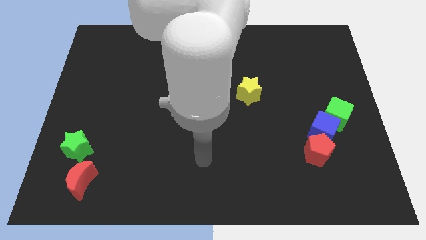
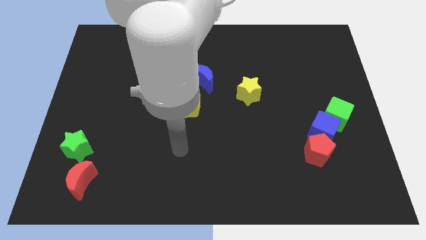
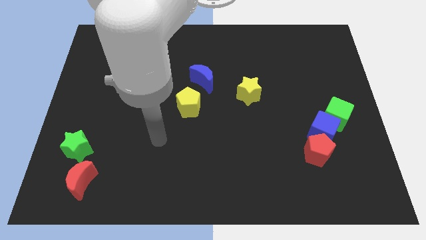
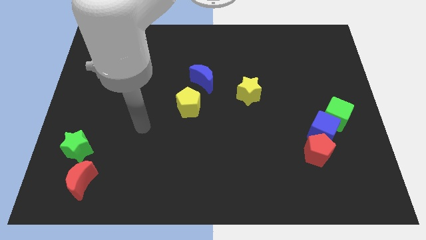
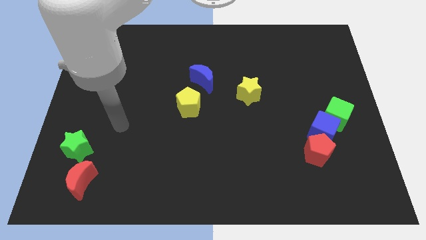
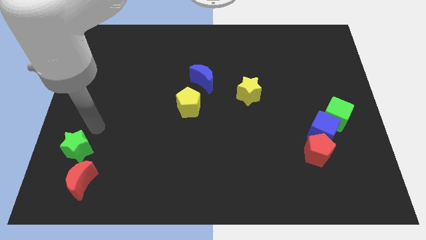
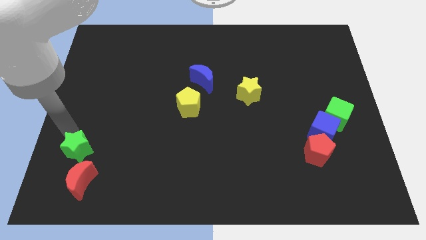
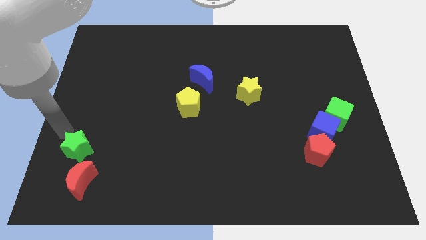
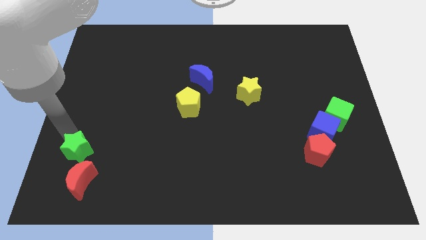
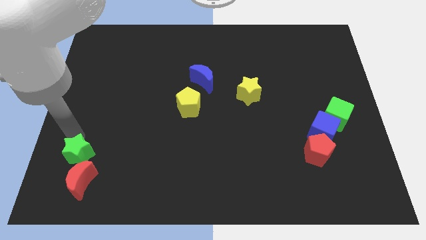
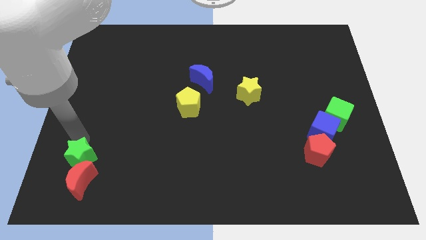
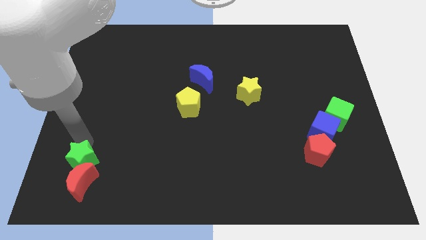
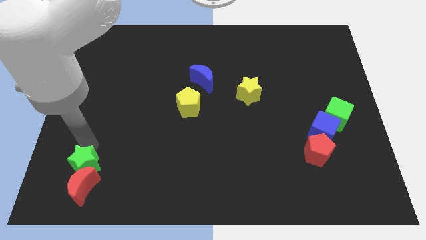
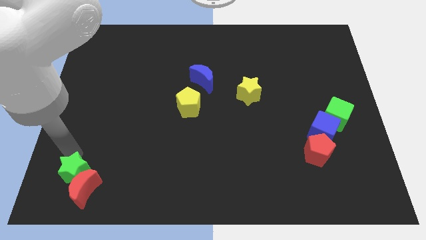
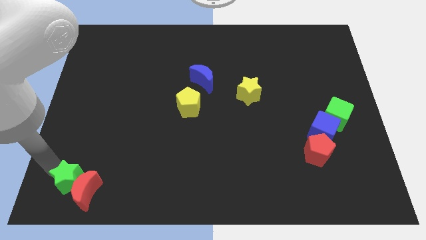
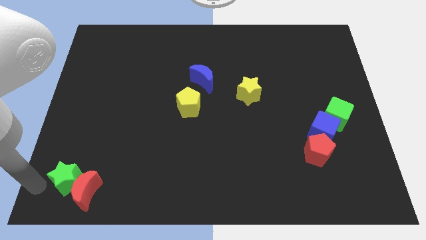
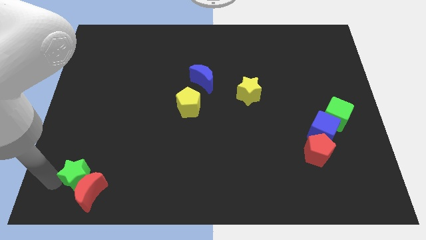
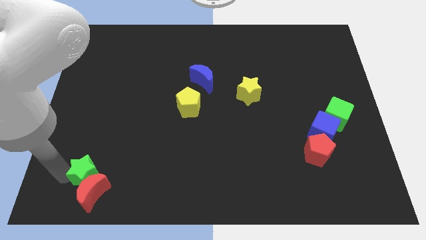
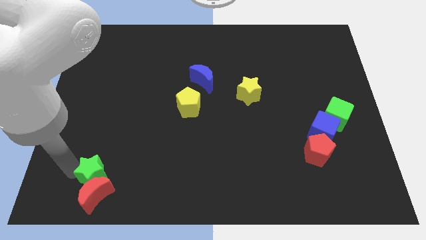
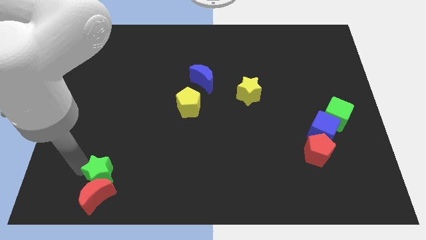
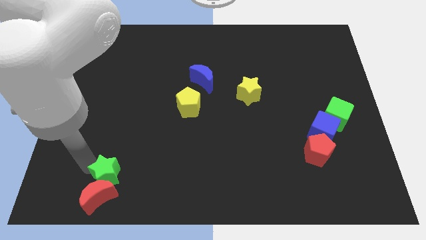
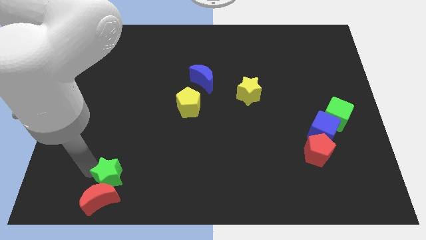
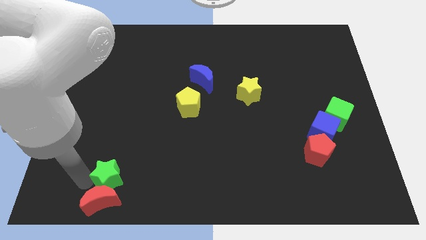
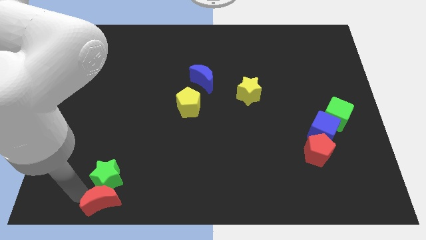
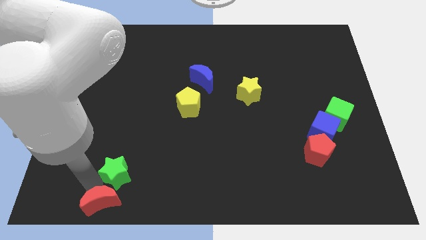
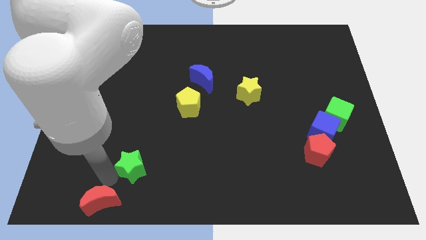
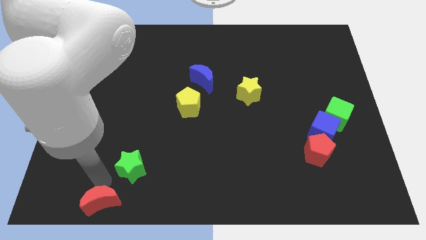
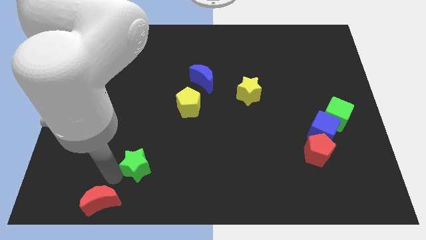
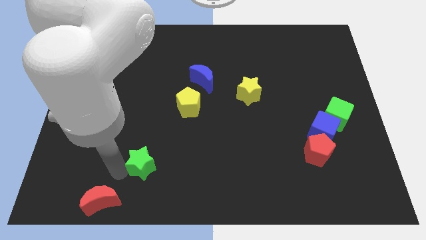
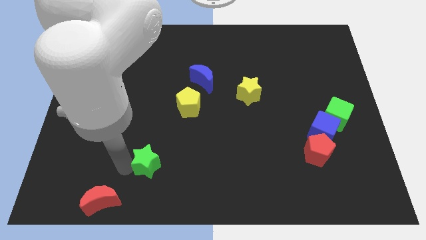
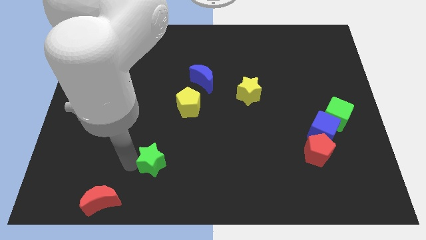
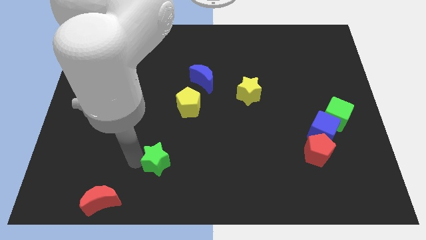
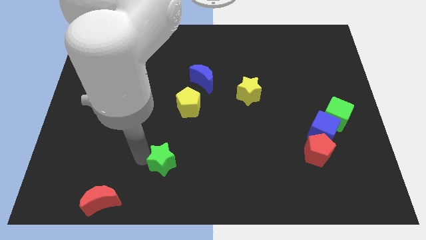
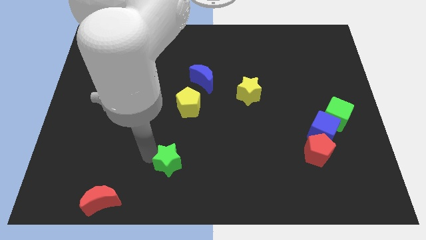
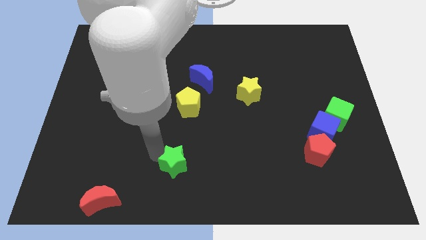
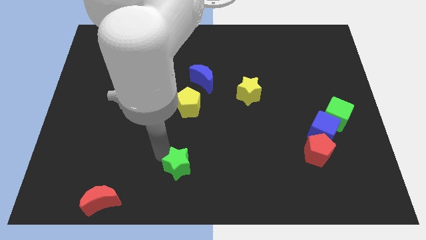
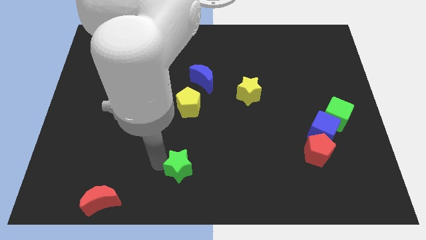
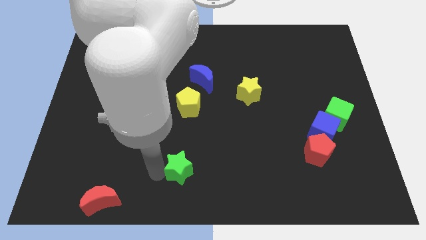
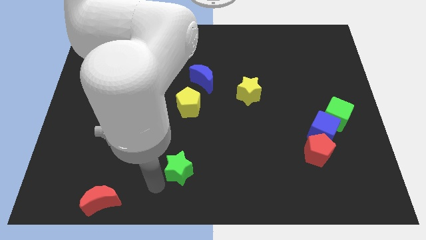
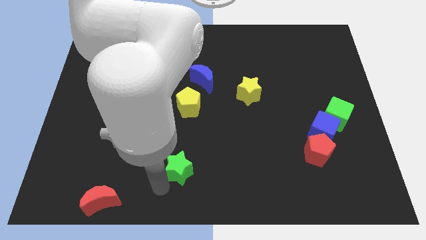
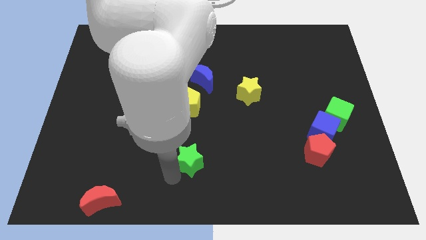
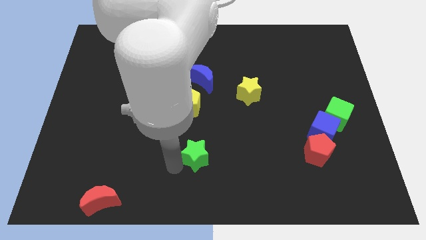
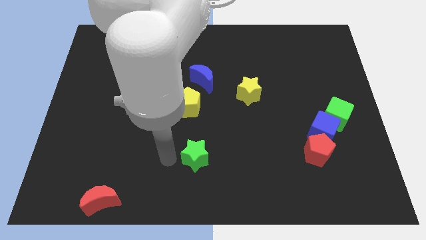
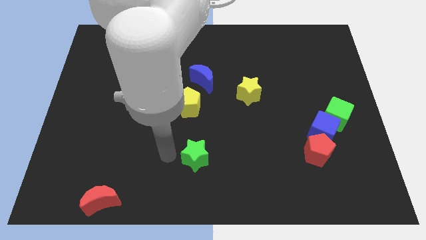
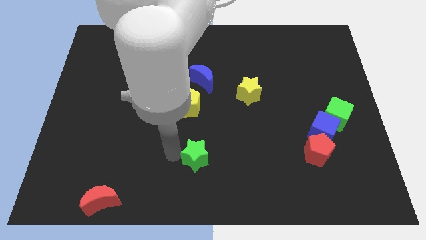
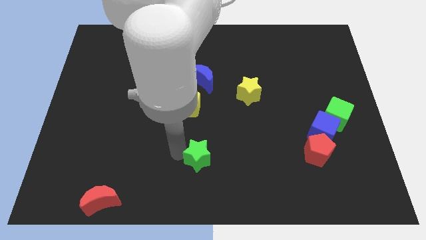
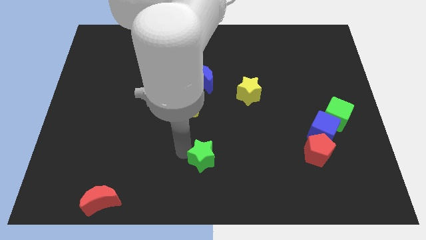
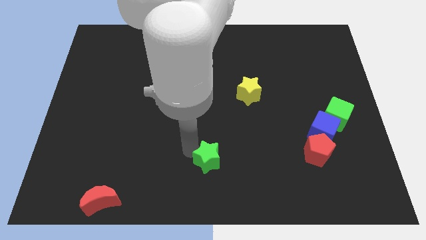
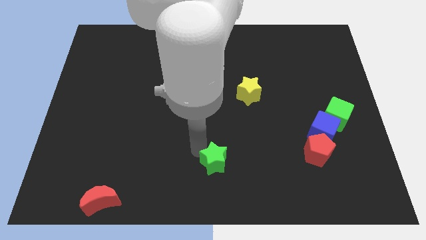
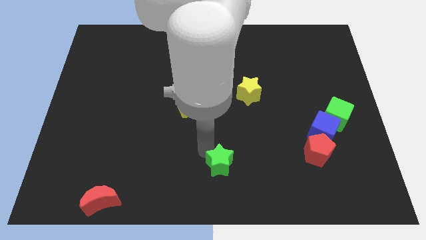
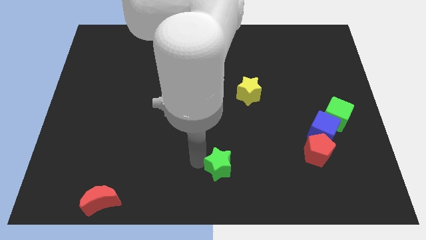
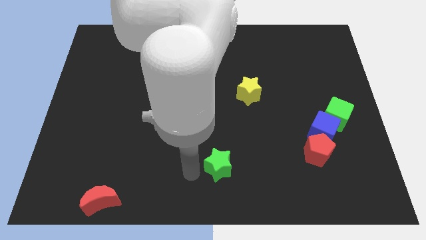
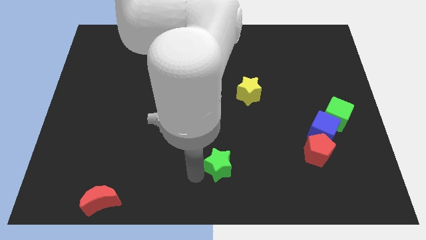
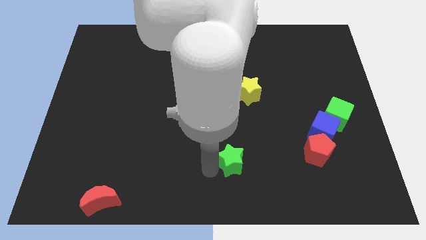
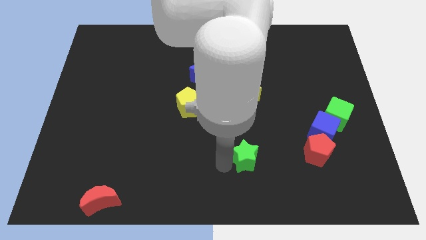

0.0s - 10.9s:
push the green star to the left of the red pentagon

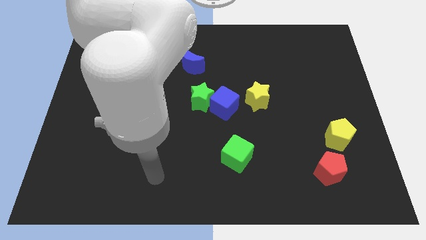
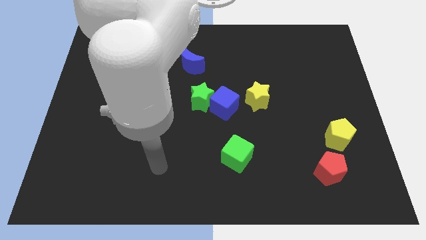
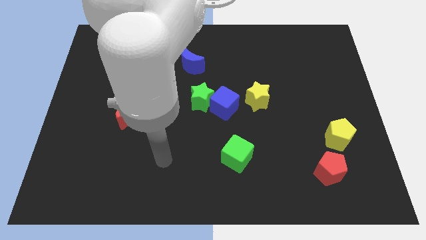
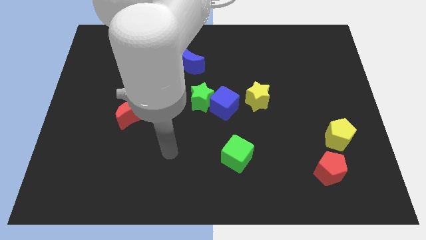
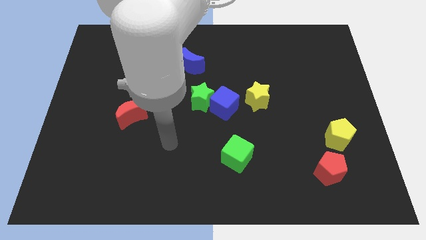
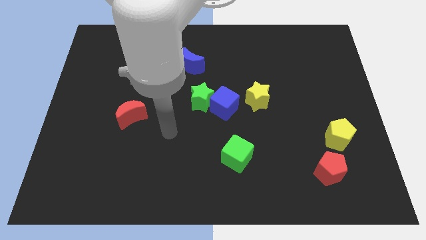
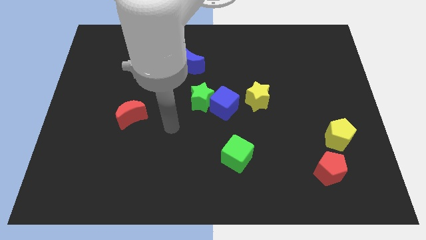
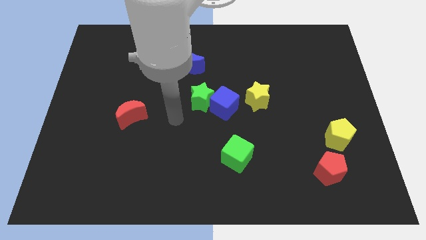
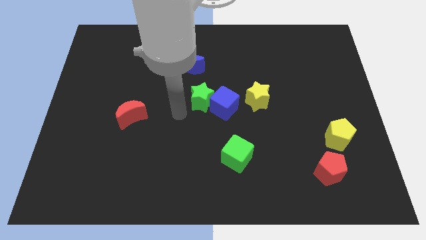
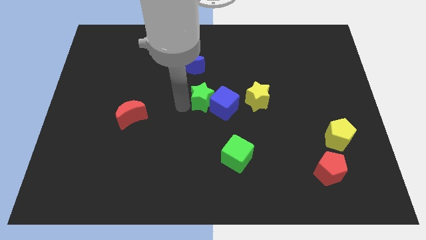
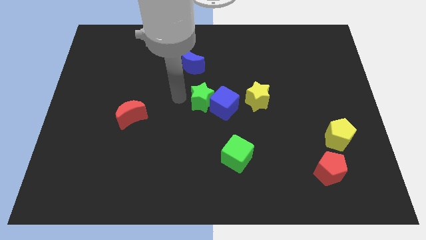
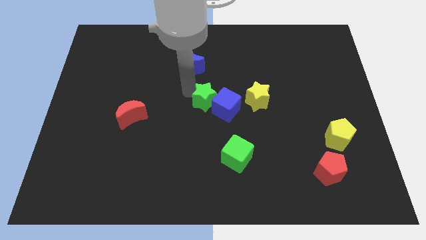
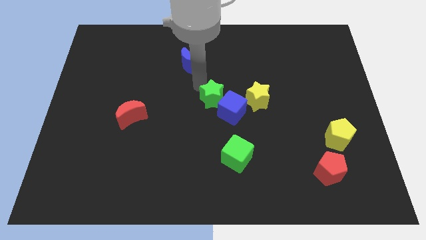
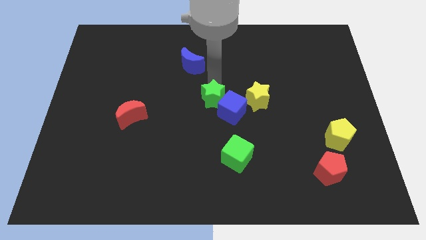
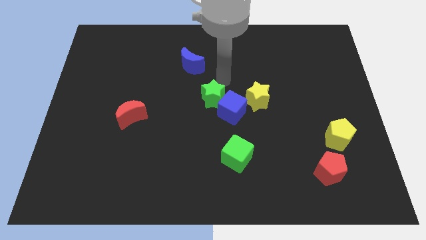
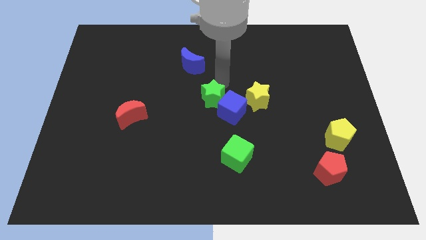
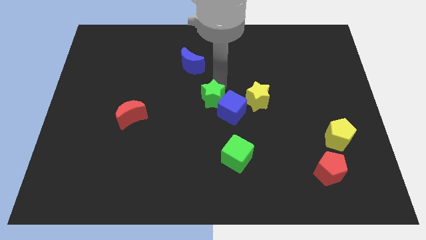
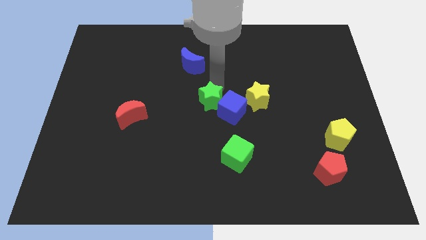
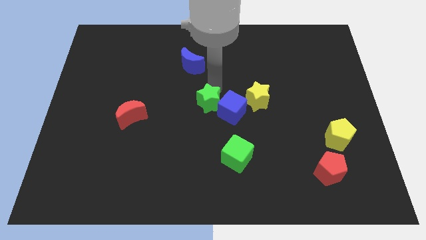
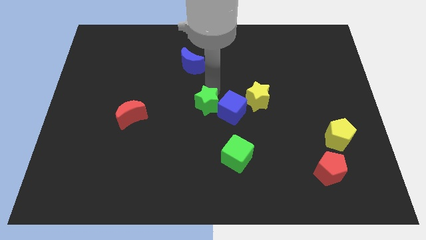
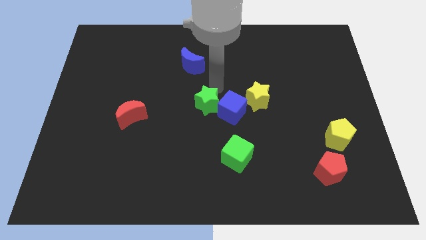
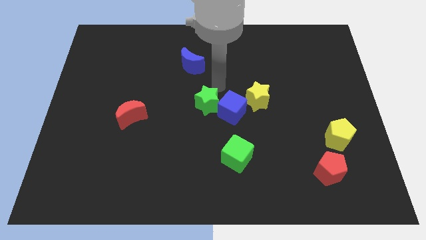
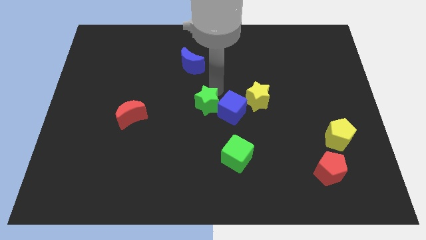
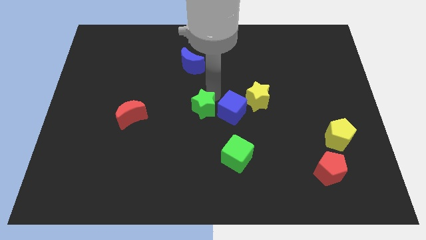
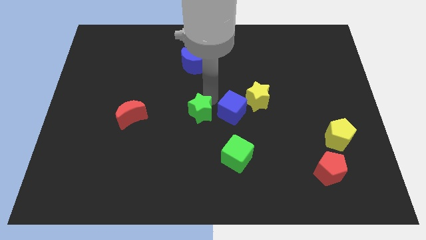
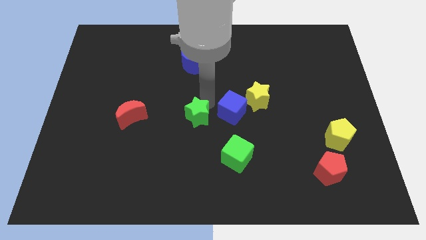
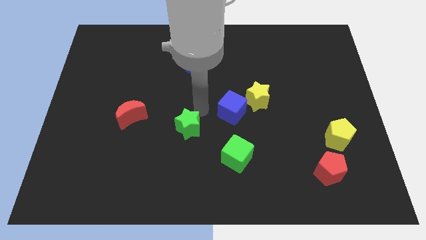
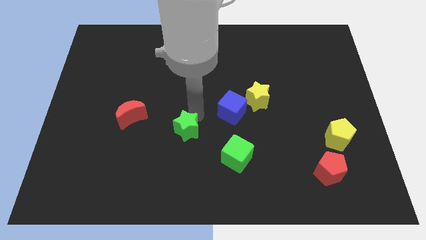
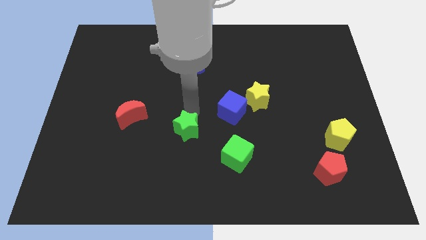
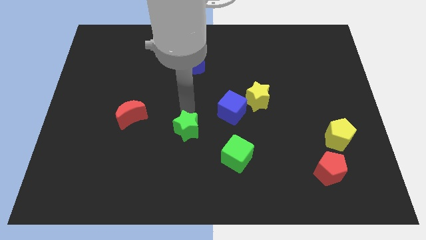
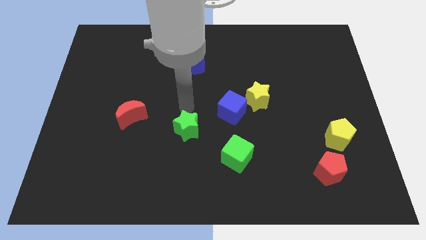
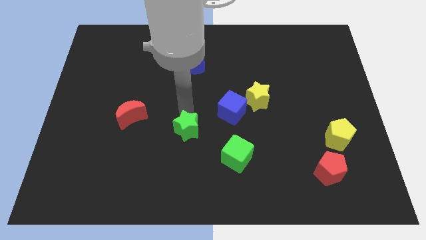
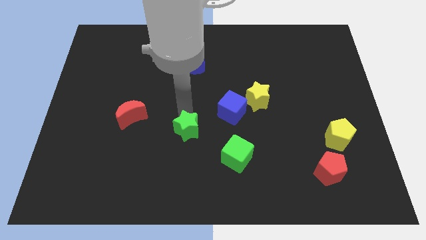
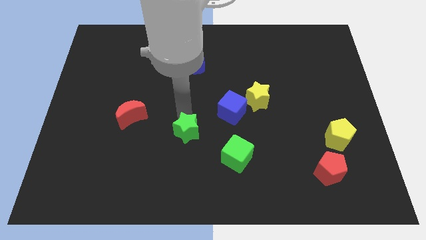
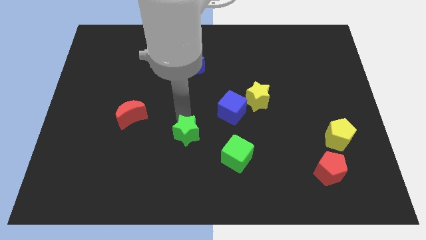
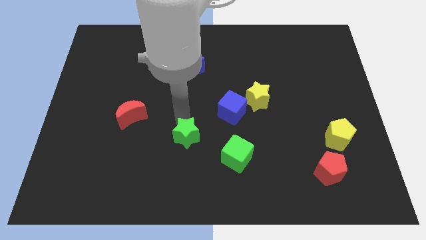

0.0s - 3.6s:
push the green star to the left side of the green cube
